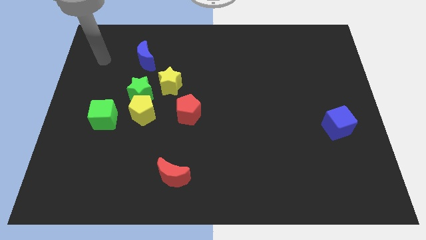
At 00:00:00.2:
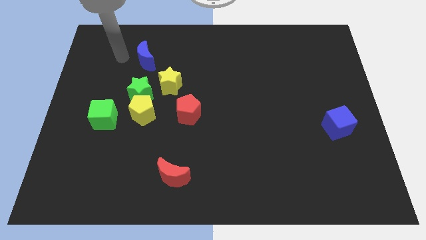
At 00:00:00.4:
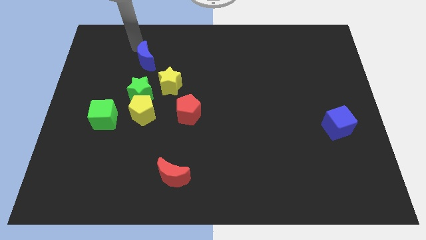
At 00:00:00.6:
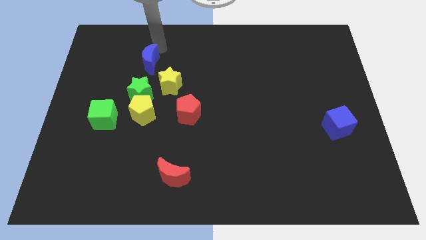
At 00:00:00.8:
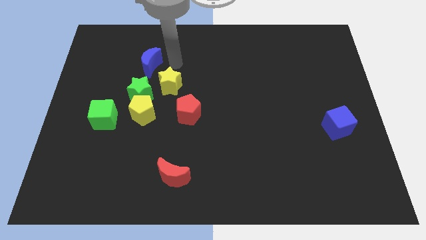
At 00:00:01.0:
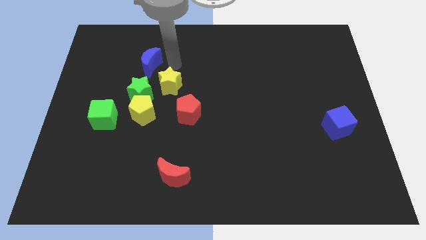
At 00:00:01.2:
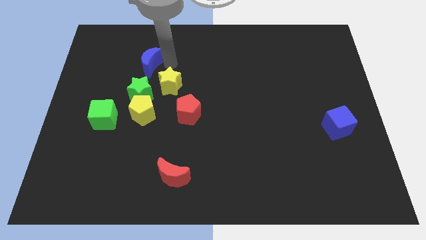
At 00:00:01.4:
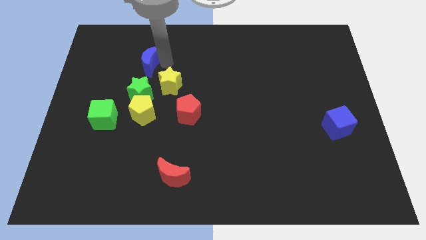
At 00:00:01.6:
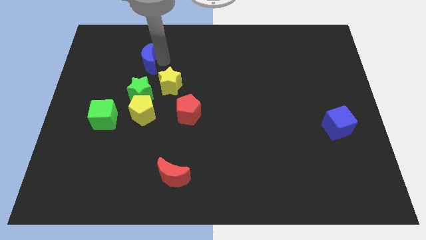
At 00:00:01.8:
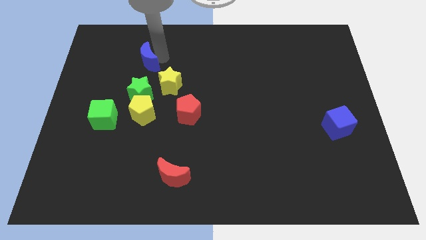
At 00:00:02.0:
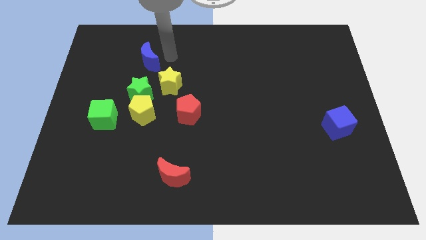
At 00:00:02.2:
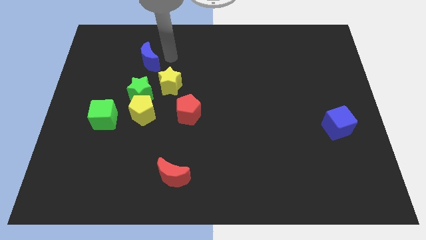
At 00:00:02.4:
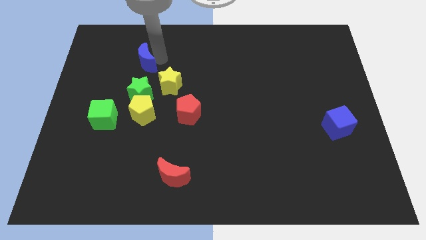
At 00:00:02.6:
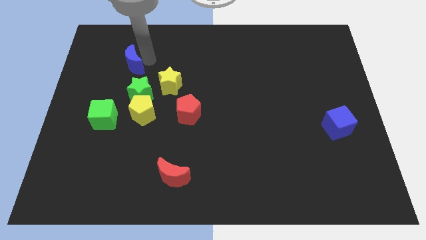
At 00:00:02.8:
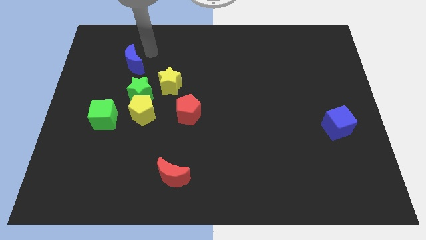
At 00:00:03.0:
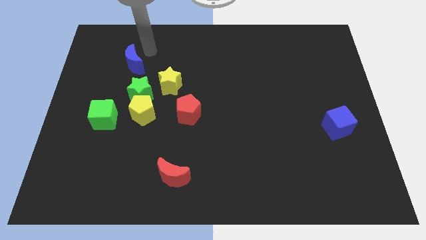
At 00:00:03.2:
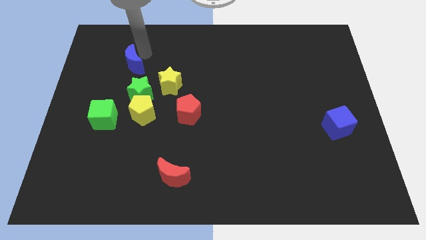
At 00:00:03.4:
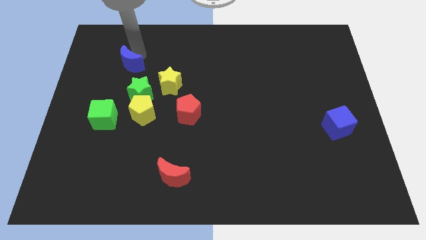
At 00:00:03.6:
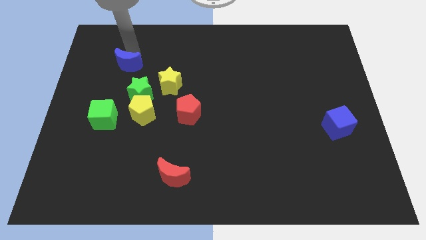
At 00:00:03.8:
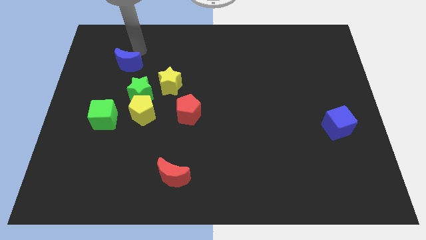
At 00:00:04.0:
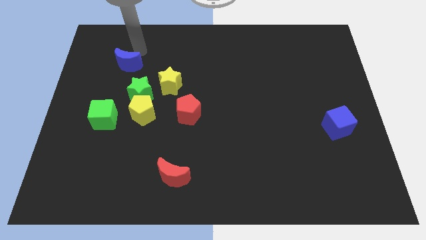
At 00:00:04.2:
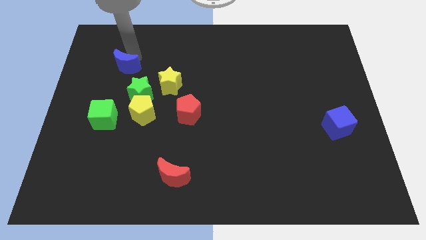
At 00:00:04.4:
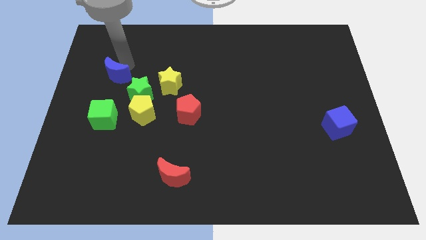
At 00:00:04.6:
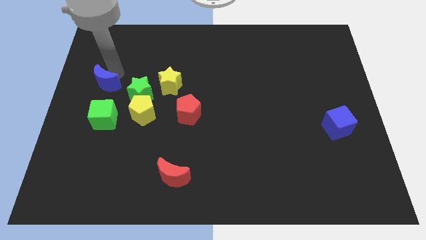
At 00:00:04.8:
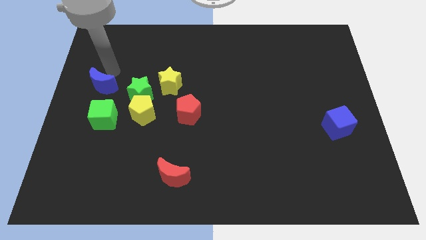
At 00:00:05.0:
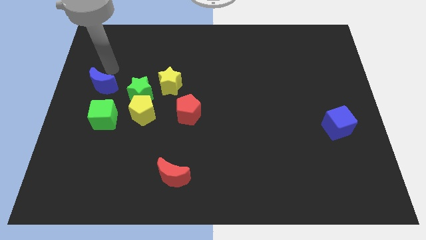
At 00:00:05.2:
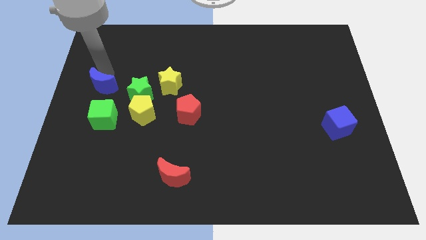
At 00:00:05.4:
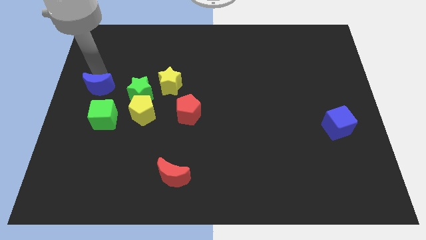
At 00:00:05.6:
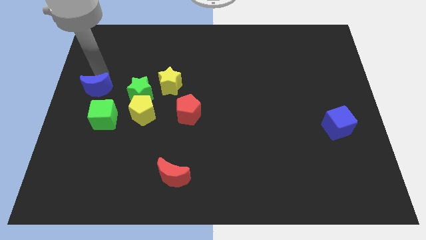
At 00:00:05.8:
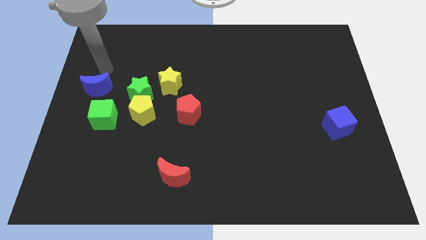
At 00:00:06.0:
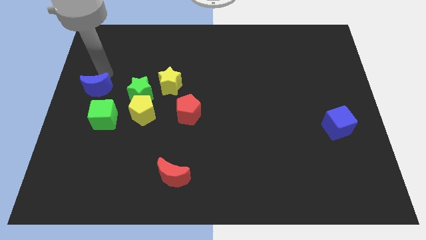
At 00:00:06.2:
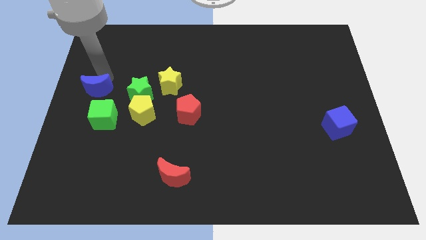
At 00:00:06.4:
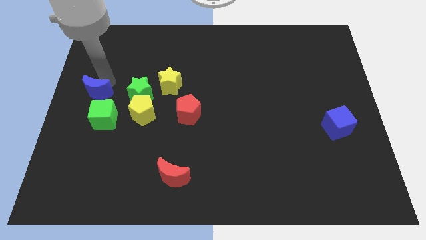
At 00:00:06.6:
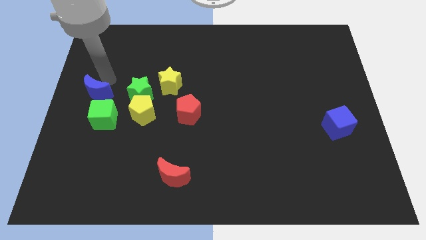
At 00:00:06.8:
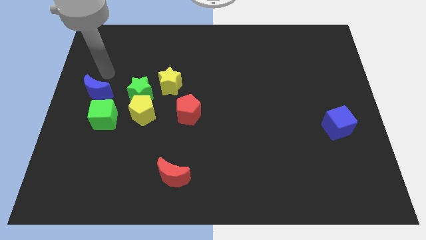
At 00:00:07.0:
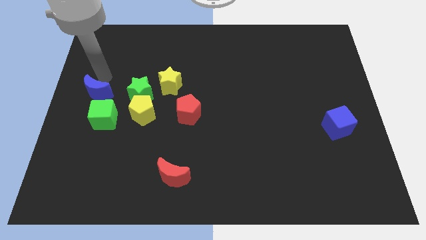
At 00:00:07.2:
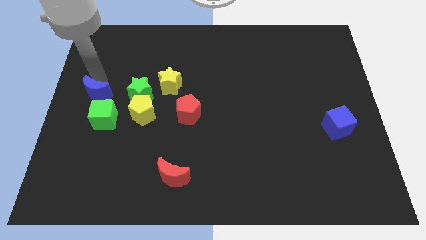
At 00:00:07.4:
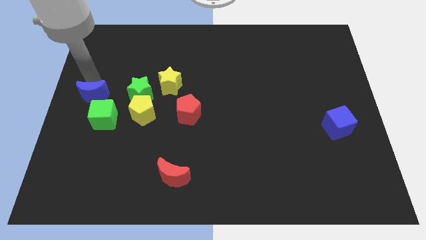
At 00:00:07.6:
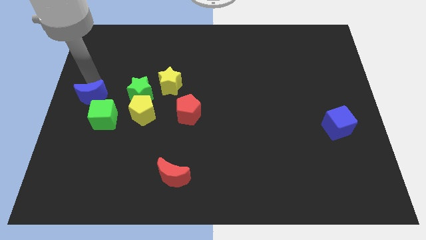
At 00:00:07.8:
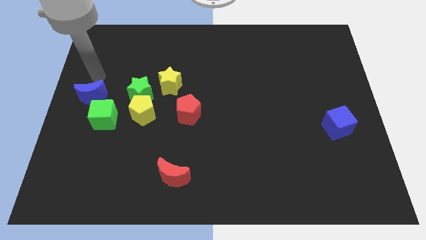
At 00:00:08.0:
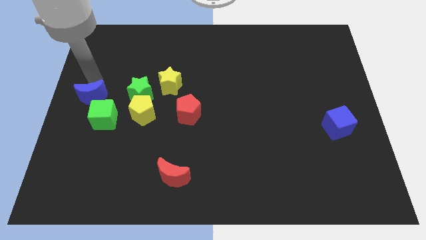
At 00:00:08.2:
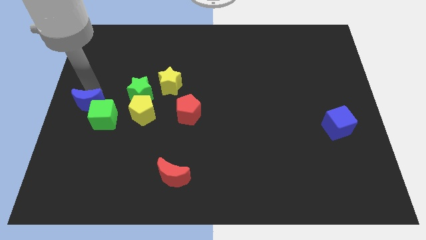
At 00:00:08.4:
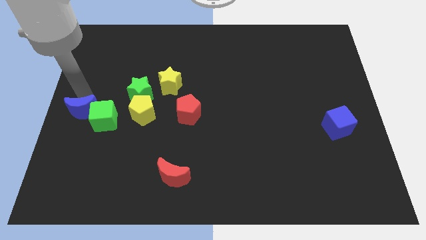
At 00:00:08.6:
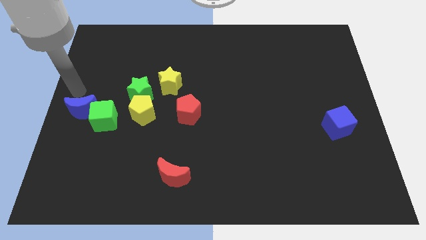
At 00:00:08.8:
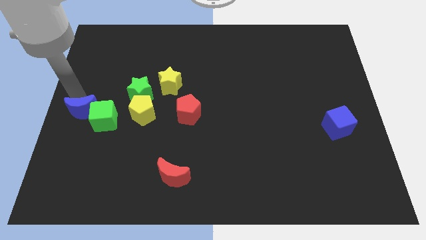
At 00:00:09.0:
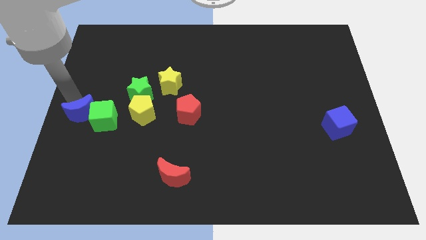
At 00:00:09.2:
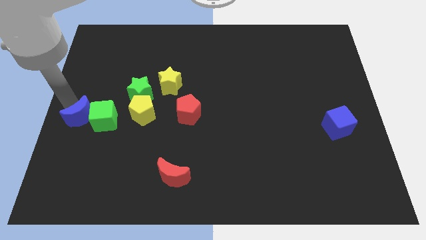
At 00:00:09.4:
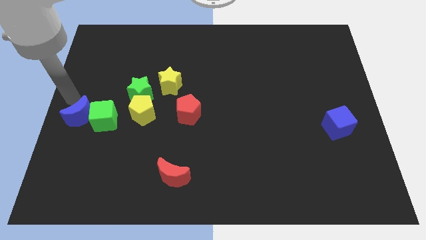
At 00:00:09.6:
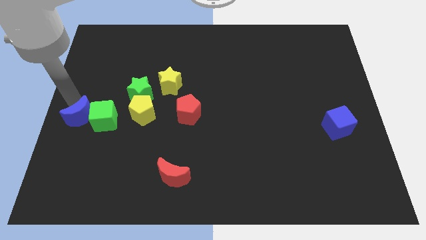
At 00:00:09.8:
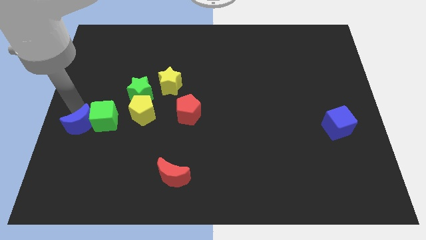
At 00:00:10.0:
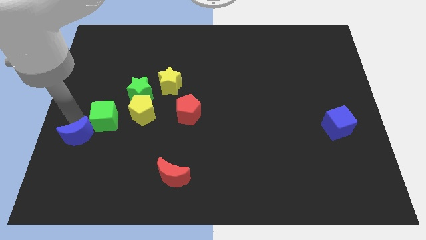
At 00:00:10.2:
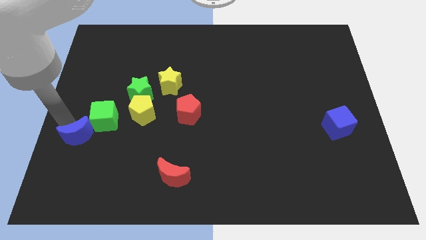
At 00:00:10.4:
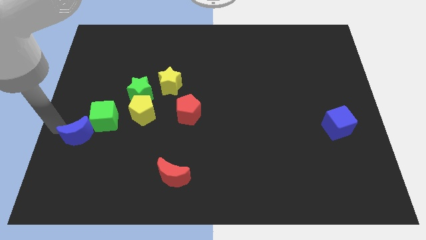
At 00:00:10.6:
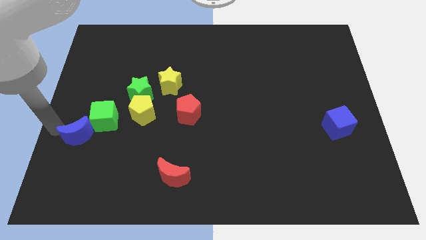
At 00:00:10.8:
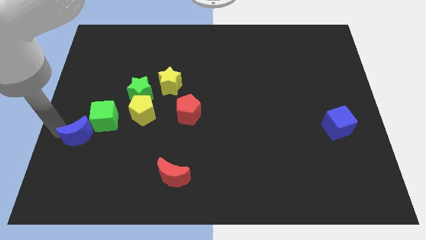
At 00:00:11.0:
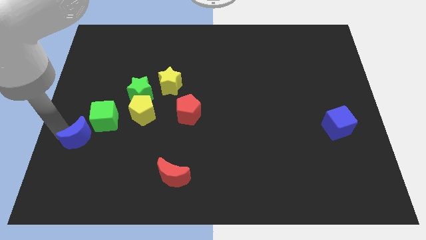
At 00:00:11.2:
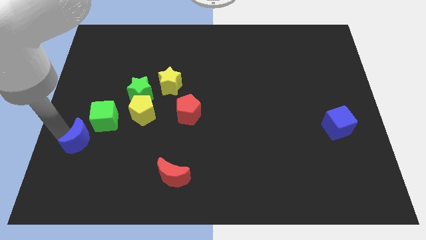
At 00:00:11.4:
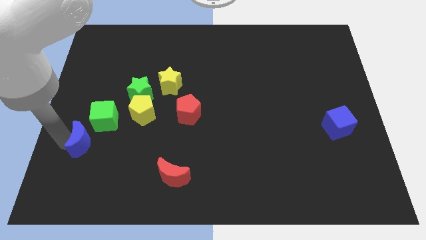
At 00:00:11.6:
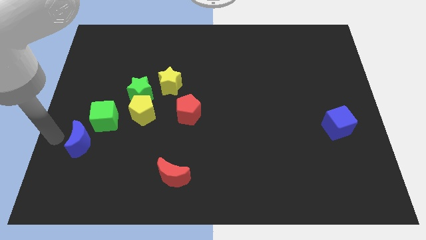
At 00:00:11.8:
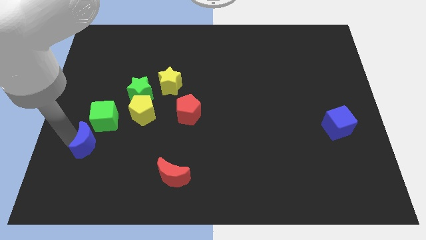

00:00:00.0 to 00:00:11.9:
slide the blue moon down

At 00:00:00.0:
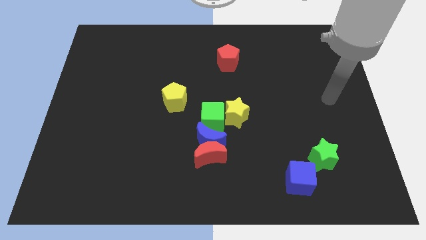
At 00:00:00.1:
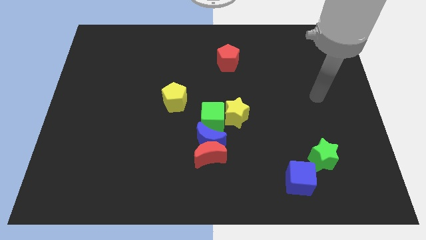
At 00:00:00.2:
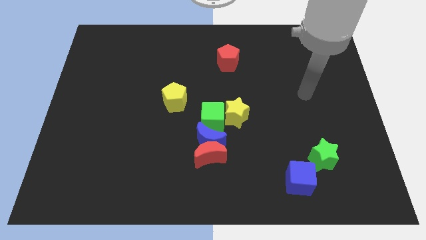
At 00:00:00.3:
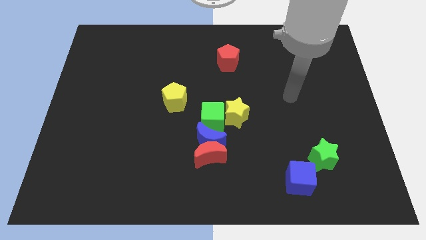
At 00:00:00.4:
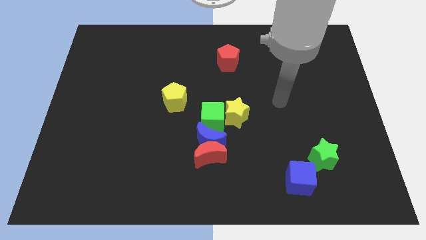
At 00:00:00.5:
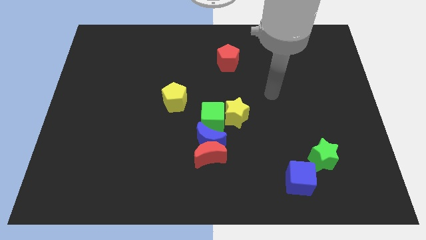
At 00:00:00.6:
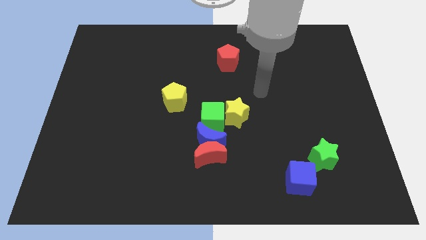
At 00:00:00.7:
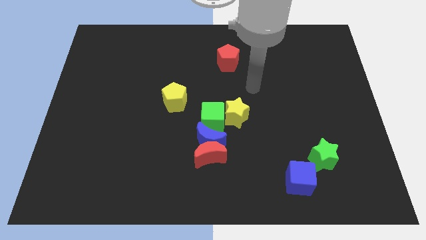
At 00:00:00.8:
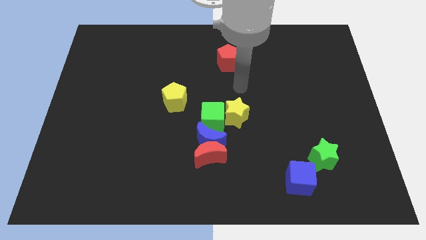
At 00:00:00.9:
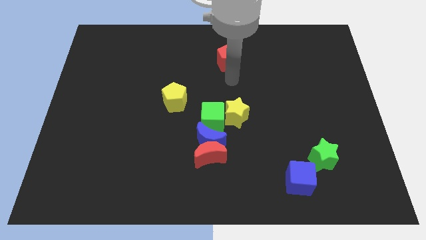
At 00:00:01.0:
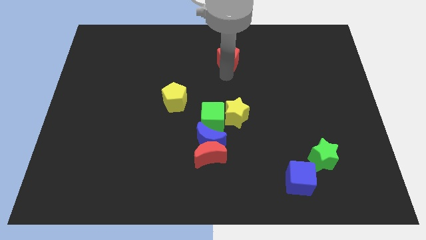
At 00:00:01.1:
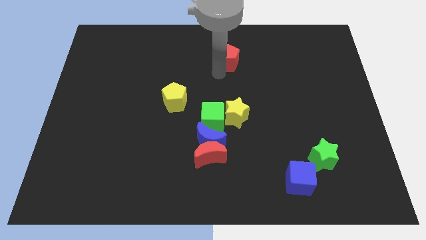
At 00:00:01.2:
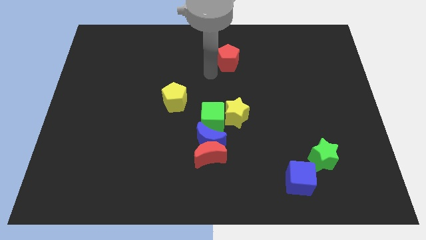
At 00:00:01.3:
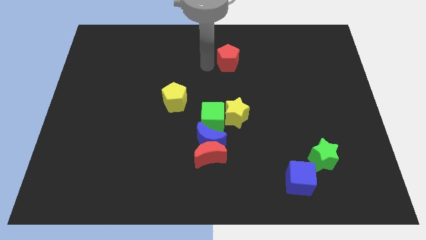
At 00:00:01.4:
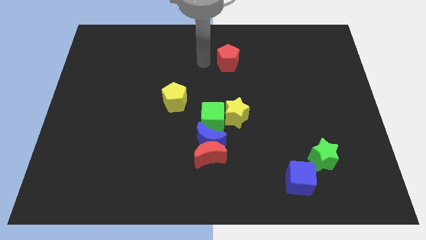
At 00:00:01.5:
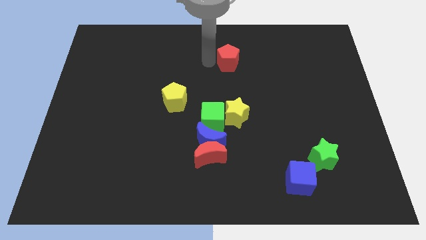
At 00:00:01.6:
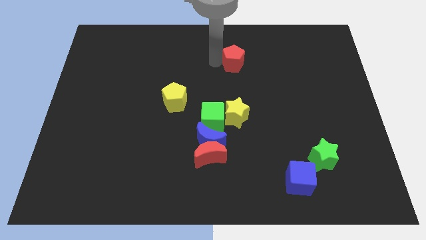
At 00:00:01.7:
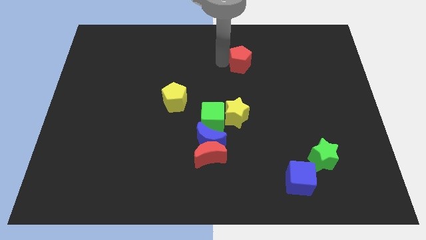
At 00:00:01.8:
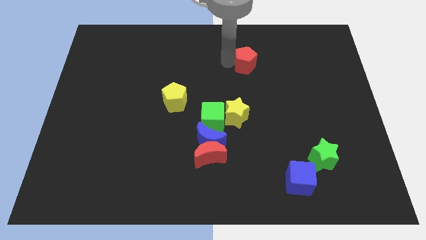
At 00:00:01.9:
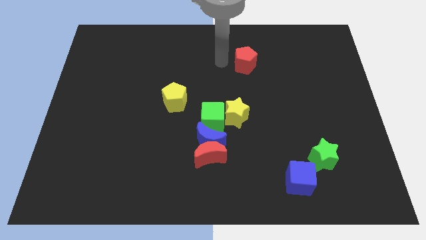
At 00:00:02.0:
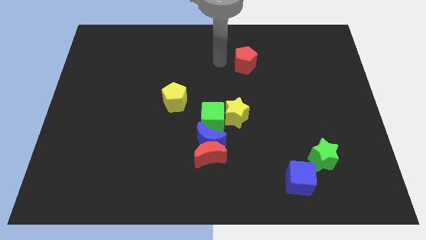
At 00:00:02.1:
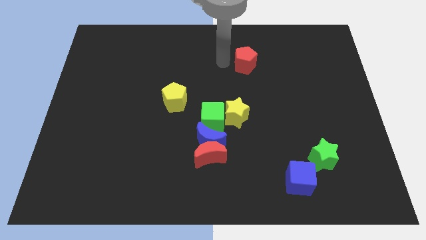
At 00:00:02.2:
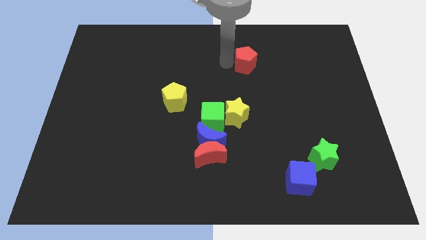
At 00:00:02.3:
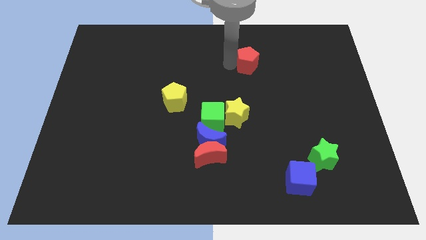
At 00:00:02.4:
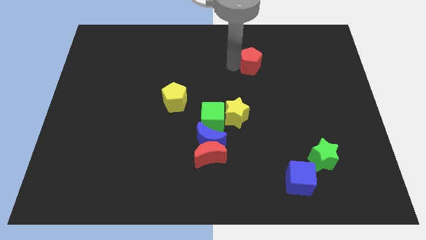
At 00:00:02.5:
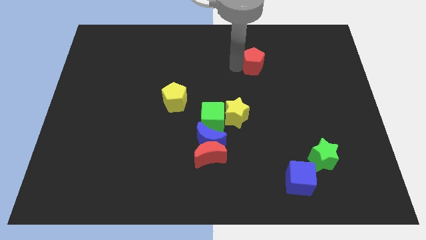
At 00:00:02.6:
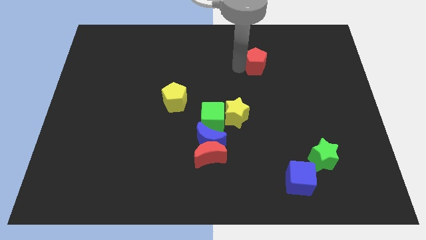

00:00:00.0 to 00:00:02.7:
push the red pentagon somewhat to the right
